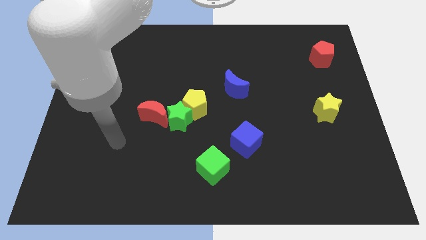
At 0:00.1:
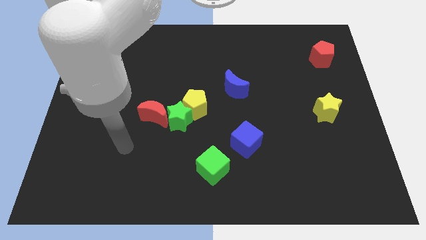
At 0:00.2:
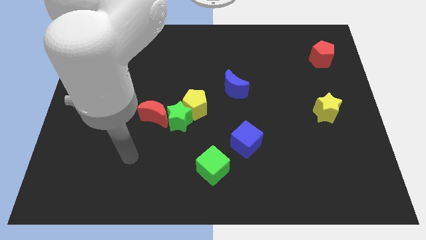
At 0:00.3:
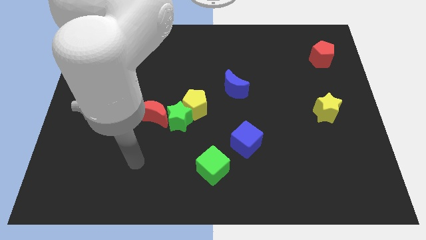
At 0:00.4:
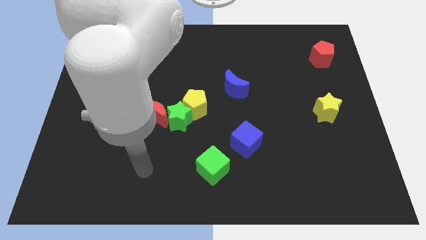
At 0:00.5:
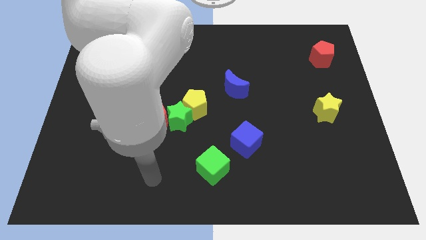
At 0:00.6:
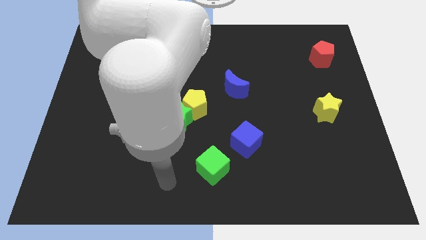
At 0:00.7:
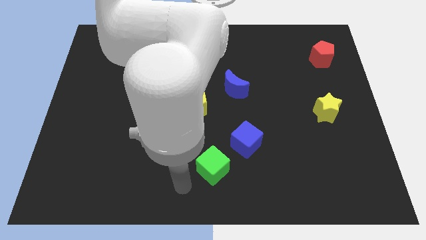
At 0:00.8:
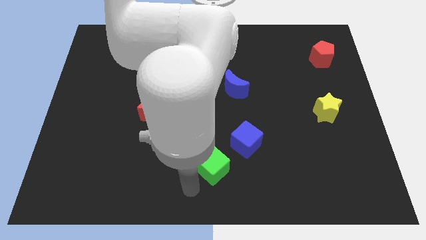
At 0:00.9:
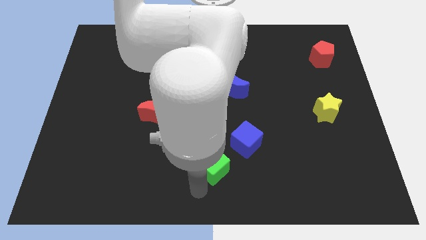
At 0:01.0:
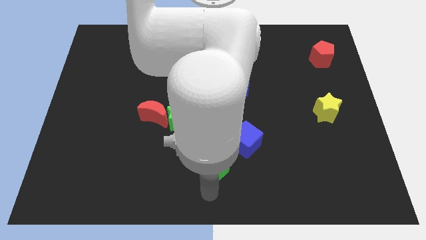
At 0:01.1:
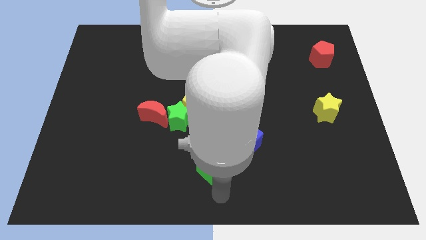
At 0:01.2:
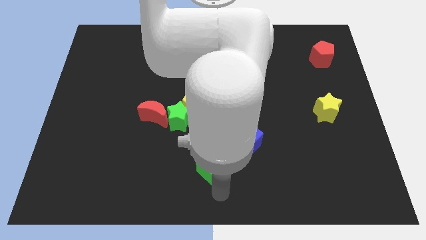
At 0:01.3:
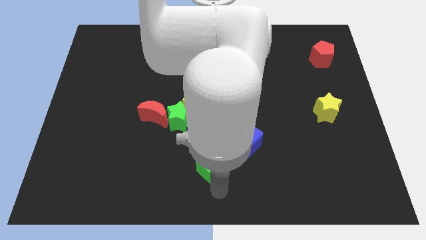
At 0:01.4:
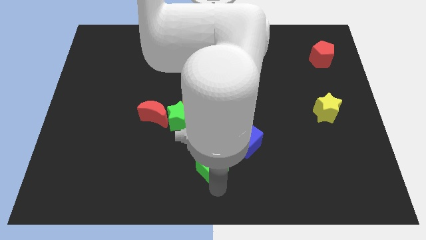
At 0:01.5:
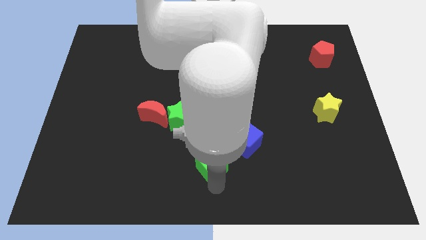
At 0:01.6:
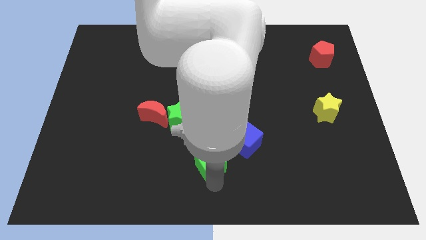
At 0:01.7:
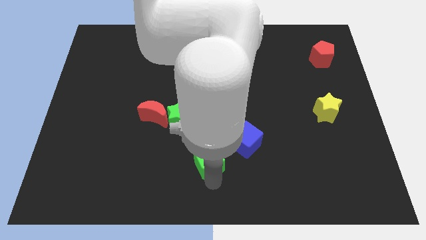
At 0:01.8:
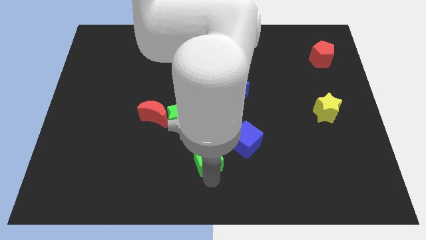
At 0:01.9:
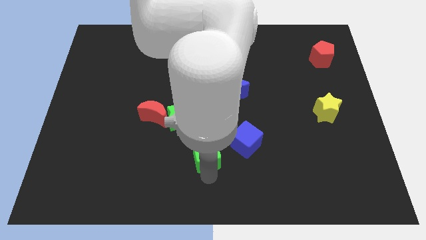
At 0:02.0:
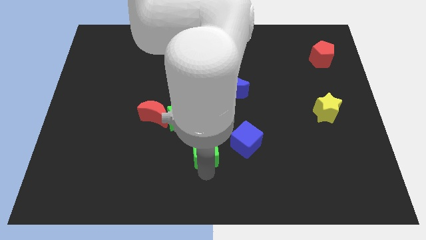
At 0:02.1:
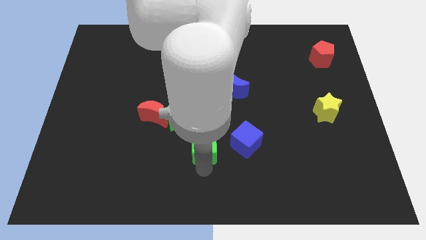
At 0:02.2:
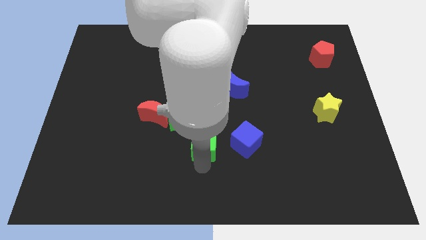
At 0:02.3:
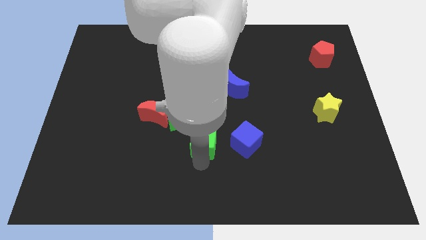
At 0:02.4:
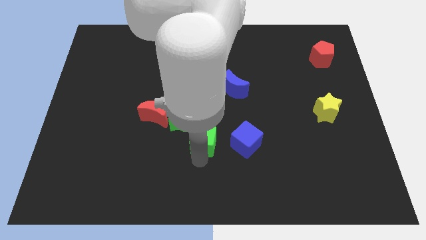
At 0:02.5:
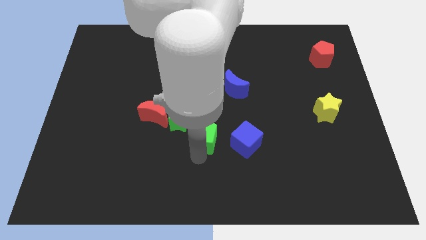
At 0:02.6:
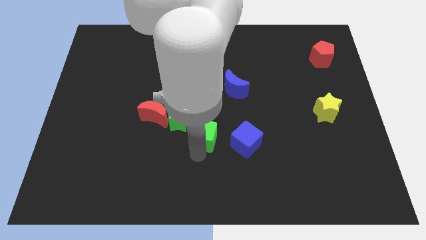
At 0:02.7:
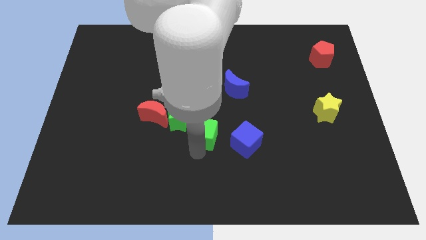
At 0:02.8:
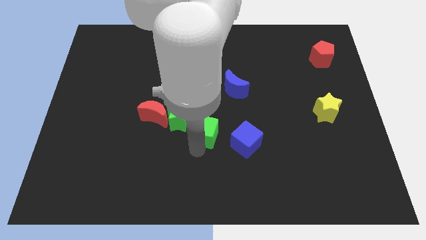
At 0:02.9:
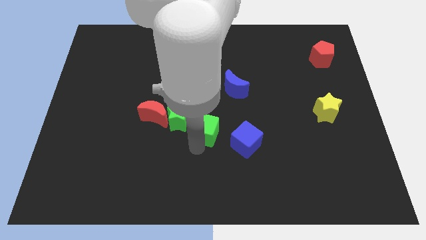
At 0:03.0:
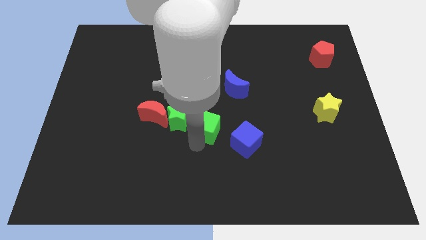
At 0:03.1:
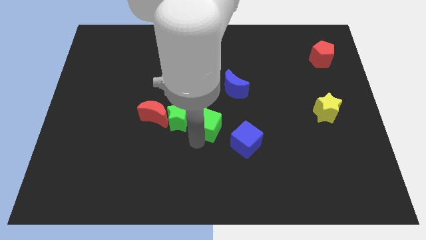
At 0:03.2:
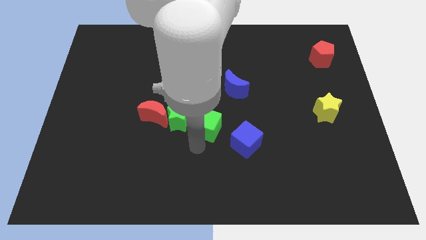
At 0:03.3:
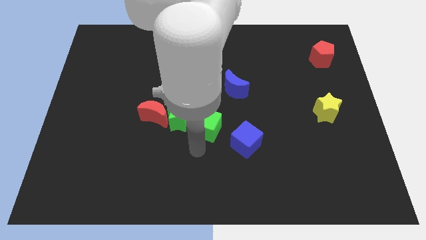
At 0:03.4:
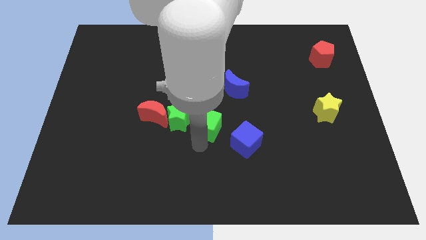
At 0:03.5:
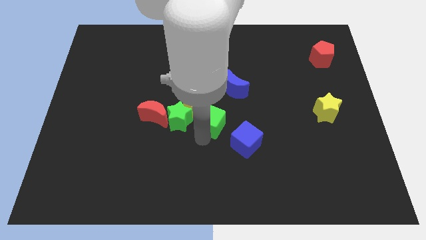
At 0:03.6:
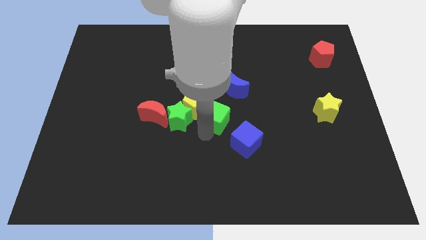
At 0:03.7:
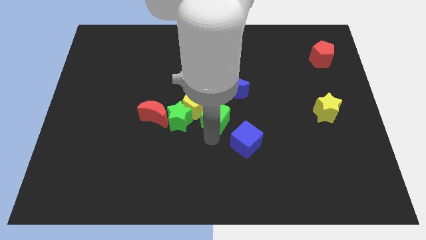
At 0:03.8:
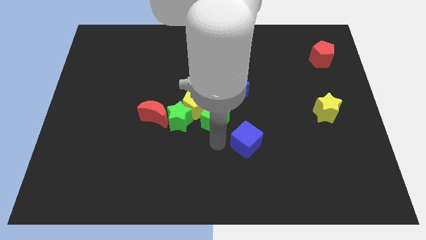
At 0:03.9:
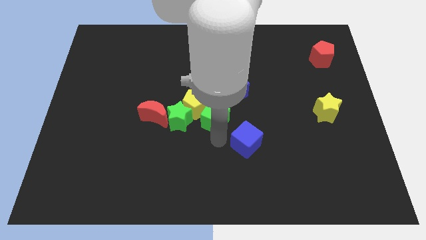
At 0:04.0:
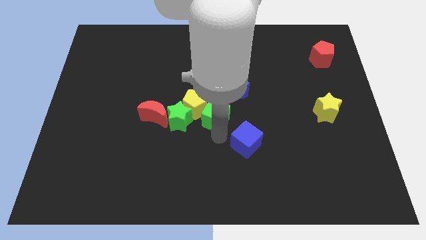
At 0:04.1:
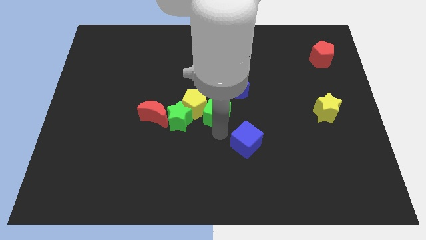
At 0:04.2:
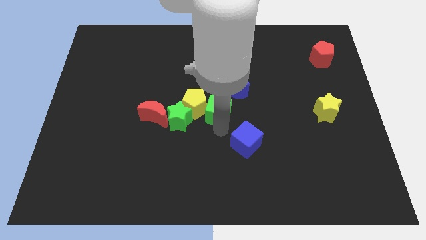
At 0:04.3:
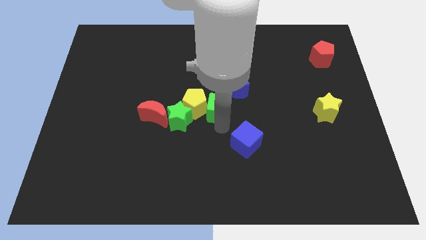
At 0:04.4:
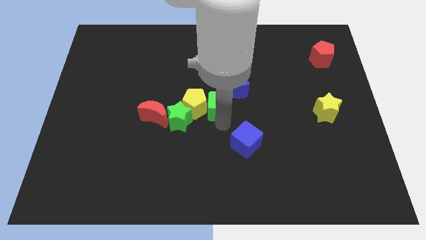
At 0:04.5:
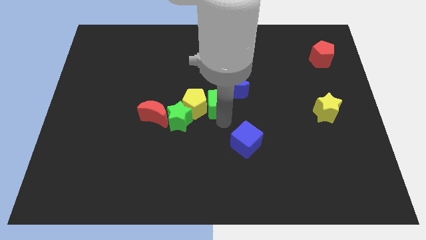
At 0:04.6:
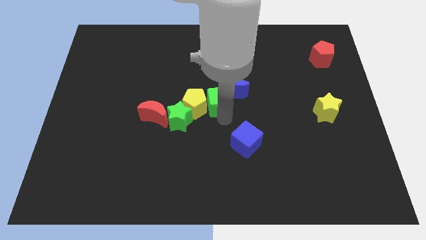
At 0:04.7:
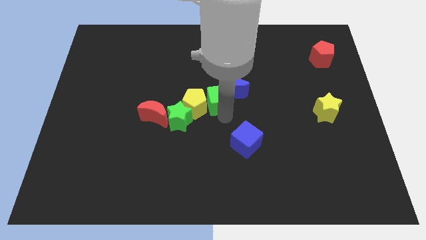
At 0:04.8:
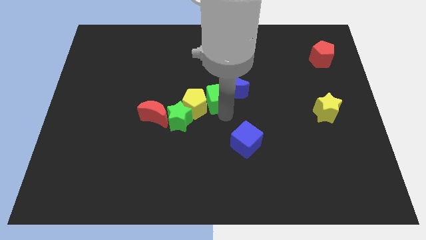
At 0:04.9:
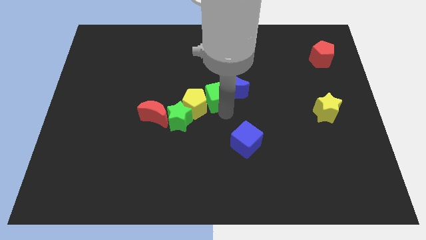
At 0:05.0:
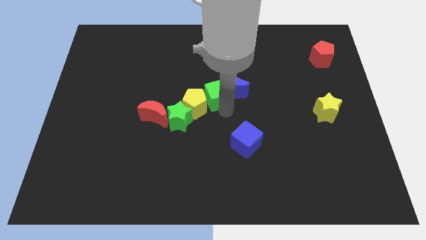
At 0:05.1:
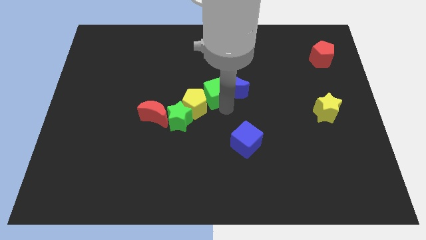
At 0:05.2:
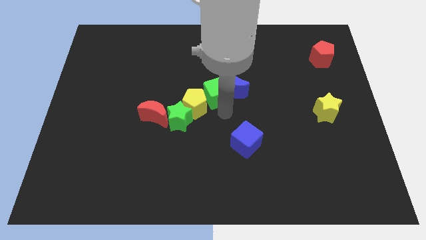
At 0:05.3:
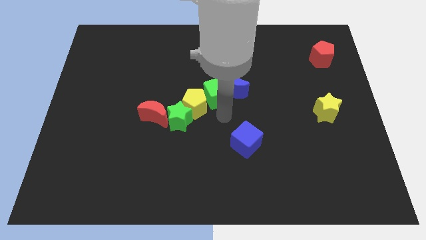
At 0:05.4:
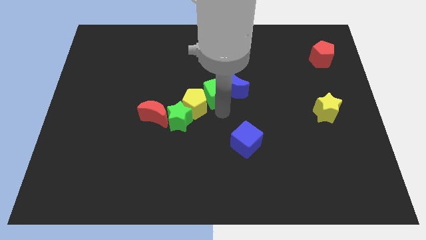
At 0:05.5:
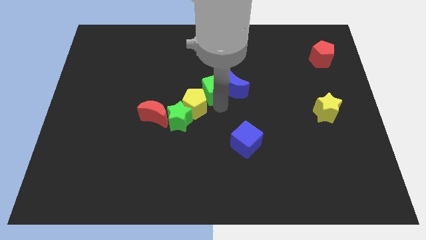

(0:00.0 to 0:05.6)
push the green cube upwards

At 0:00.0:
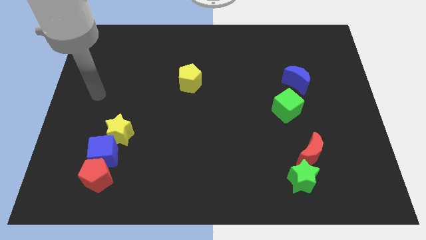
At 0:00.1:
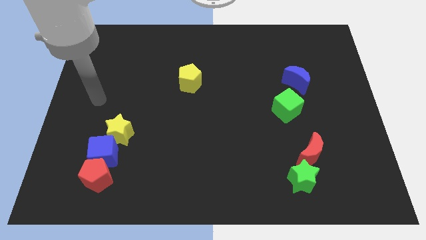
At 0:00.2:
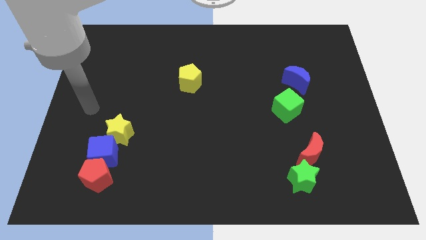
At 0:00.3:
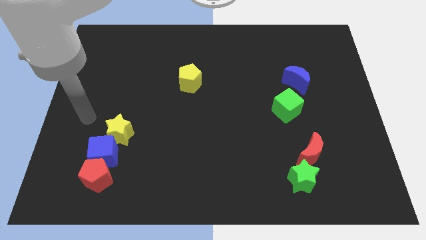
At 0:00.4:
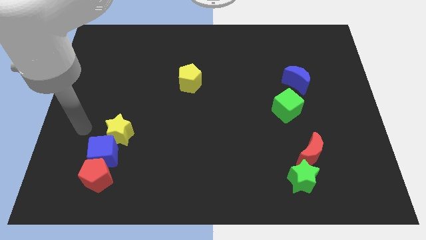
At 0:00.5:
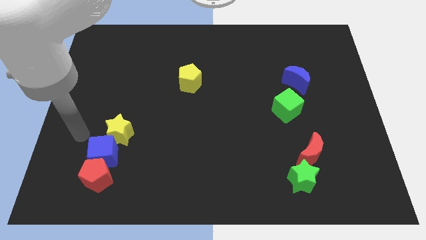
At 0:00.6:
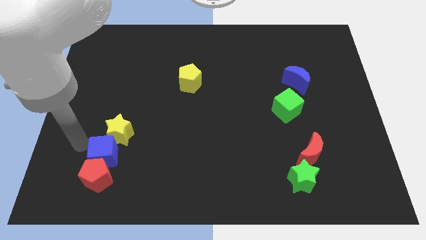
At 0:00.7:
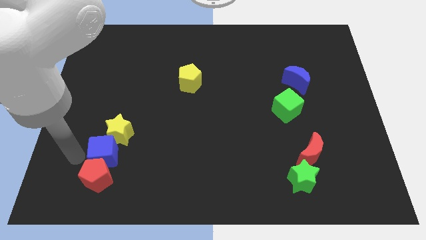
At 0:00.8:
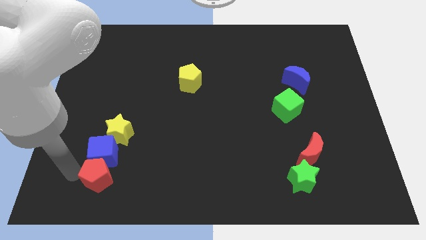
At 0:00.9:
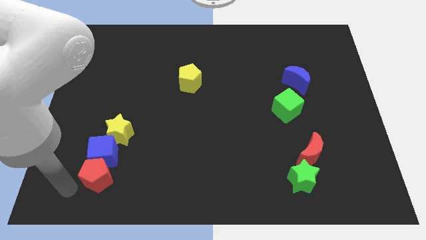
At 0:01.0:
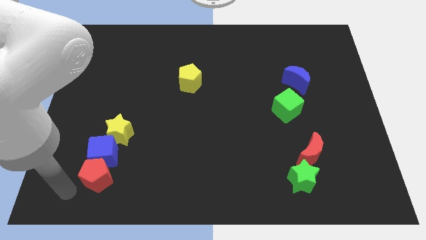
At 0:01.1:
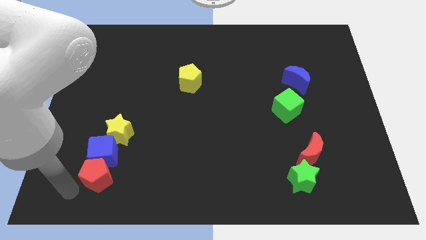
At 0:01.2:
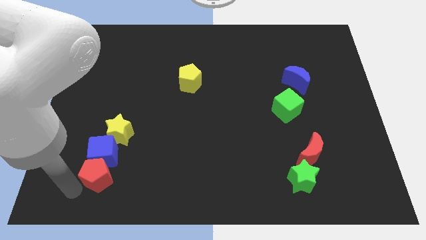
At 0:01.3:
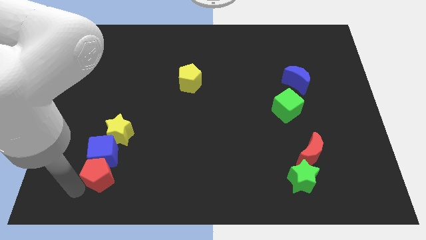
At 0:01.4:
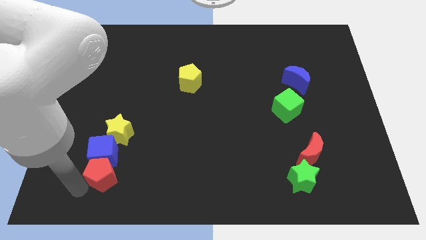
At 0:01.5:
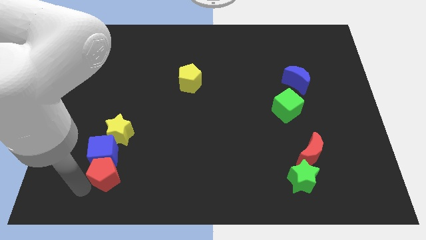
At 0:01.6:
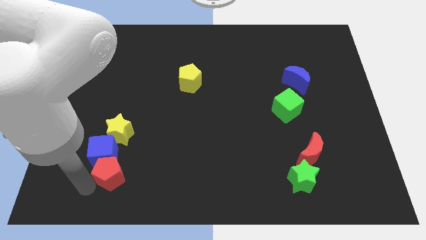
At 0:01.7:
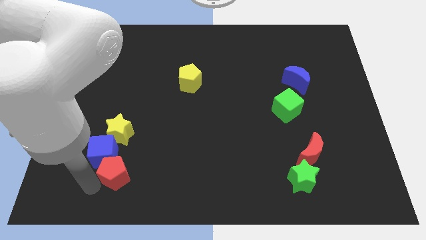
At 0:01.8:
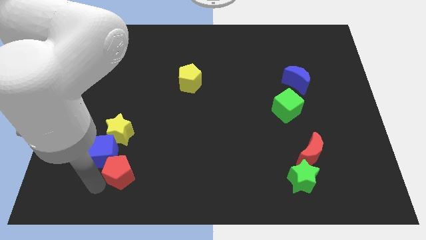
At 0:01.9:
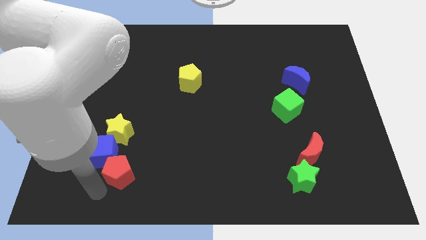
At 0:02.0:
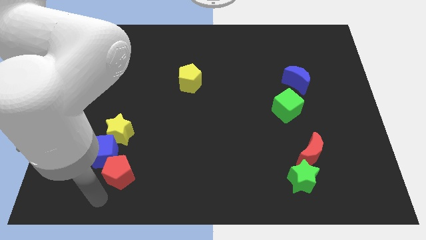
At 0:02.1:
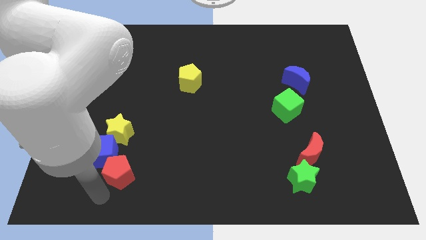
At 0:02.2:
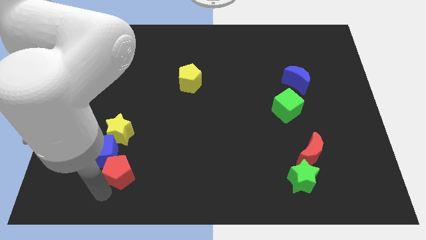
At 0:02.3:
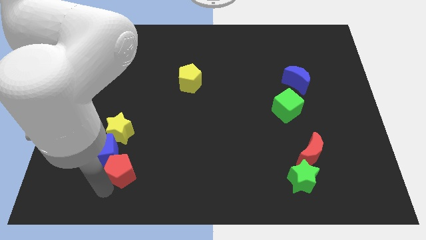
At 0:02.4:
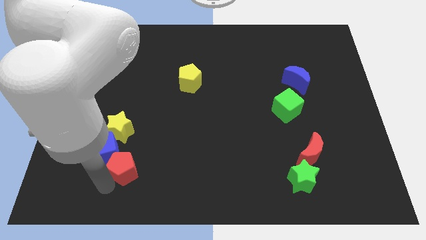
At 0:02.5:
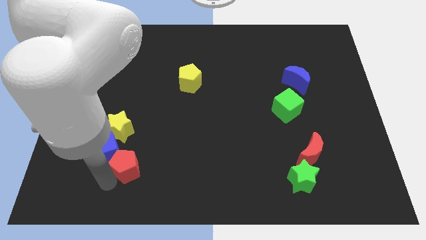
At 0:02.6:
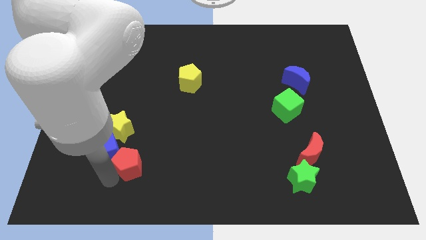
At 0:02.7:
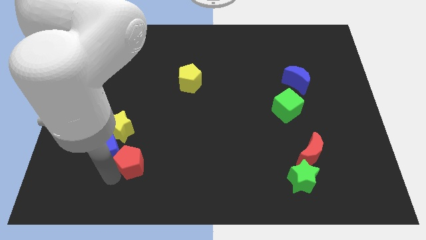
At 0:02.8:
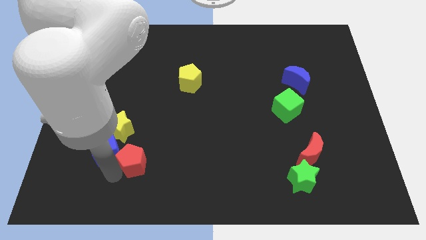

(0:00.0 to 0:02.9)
slide the red pentagon a little up and right
